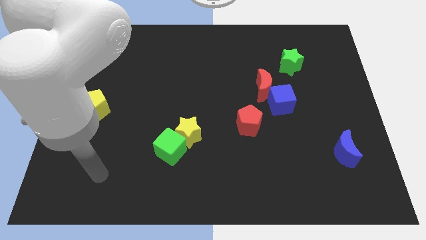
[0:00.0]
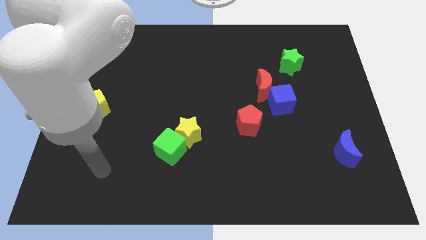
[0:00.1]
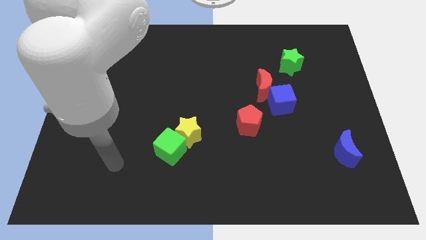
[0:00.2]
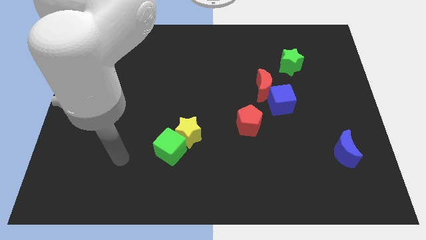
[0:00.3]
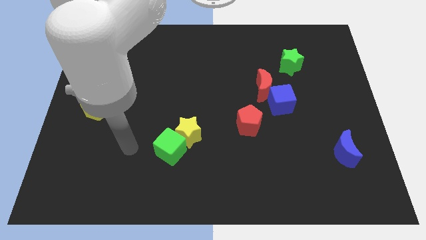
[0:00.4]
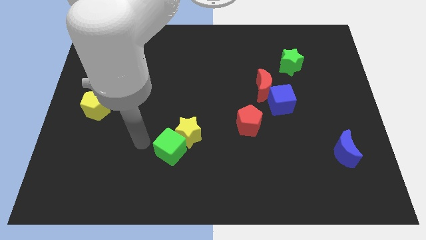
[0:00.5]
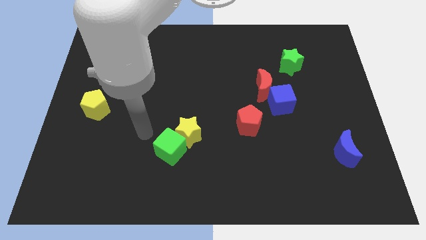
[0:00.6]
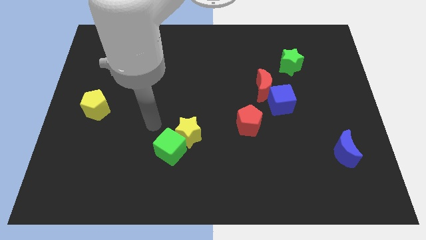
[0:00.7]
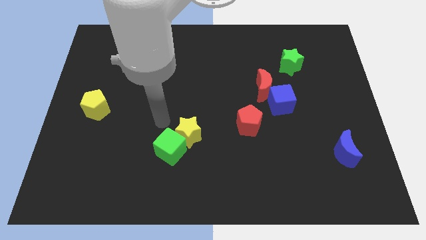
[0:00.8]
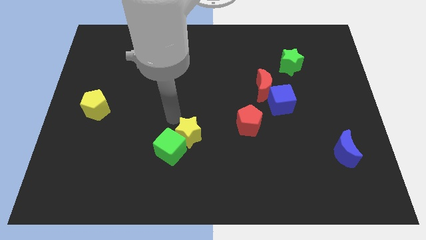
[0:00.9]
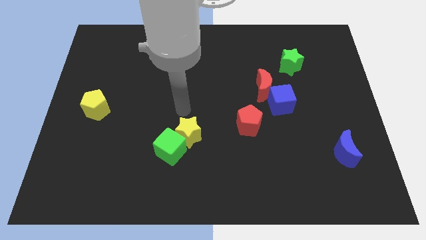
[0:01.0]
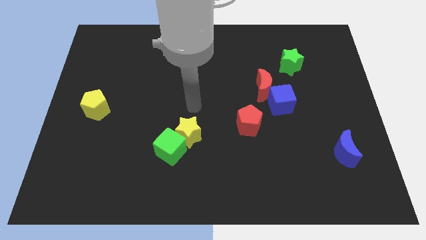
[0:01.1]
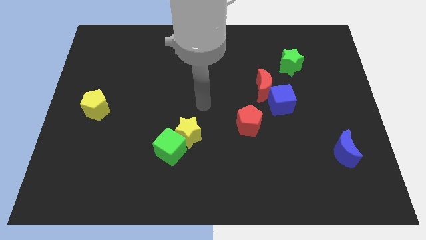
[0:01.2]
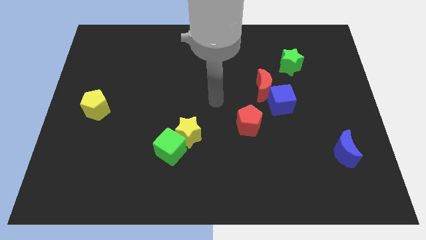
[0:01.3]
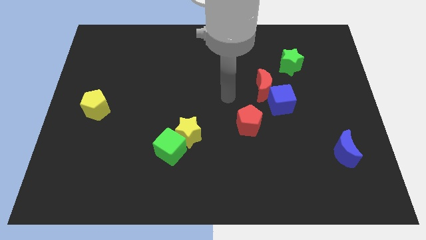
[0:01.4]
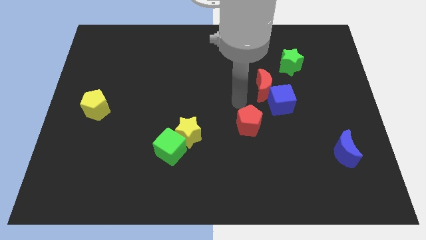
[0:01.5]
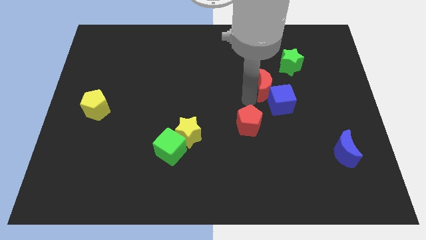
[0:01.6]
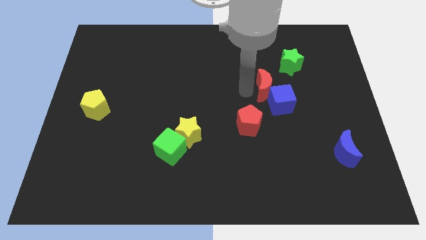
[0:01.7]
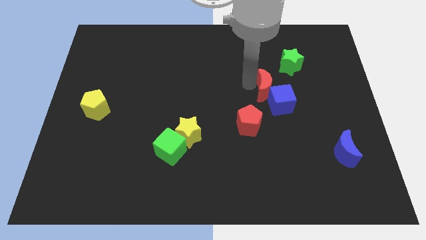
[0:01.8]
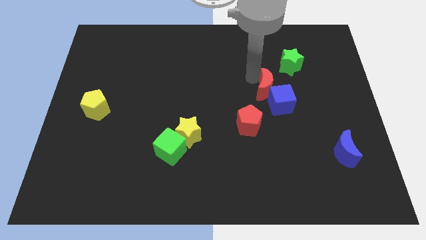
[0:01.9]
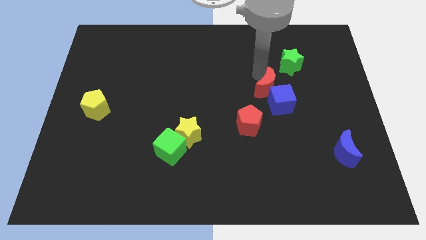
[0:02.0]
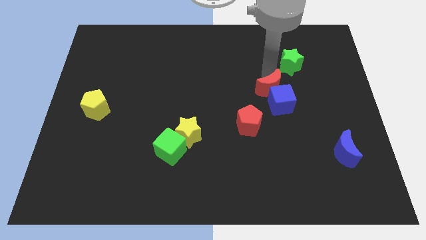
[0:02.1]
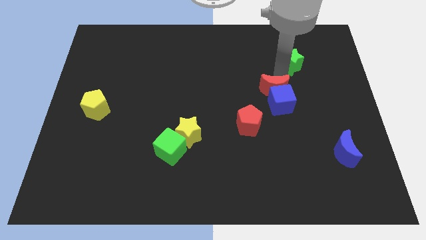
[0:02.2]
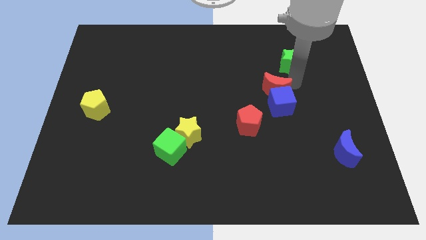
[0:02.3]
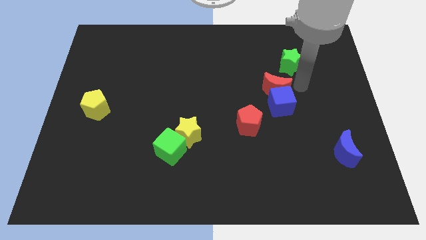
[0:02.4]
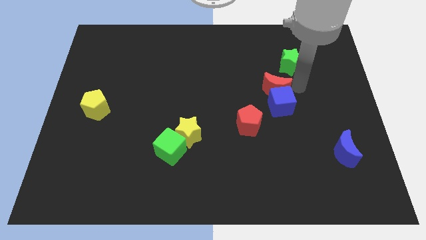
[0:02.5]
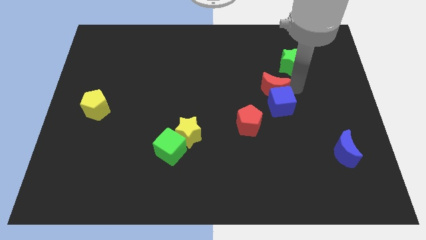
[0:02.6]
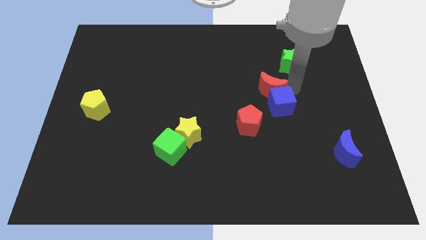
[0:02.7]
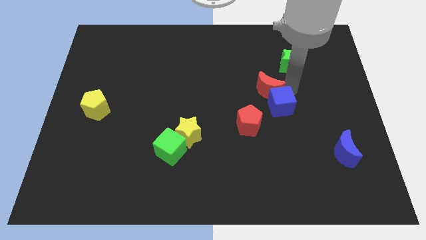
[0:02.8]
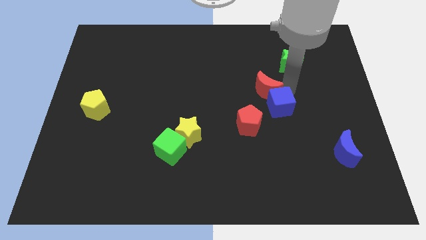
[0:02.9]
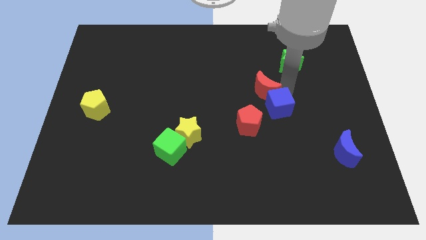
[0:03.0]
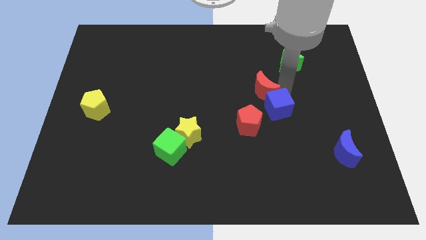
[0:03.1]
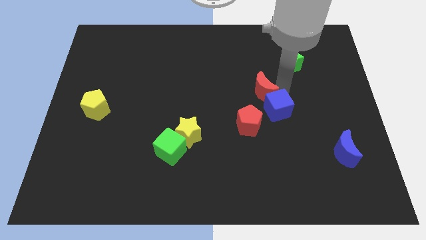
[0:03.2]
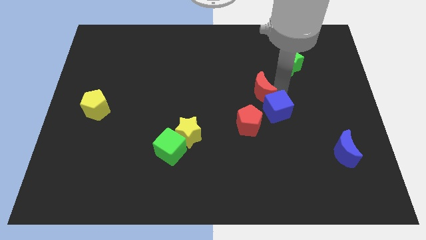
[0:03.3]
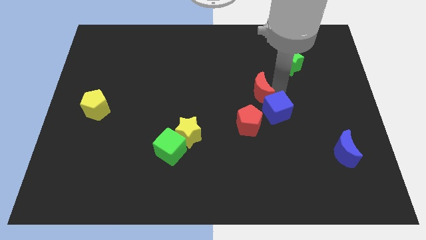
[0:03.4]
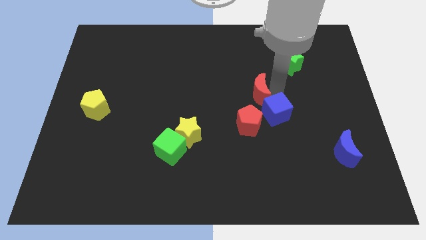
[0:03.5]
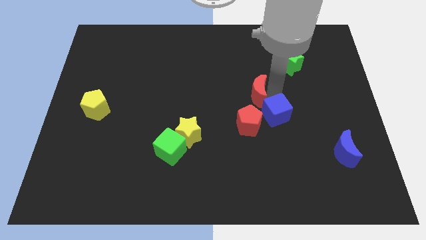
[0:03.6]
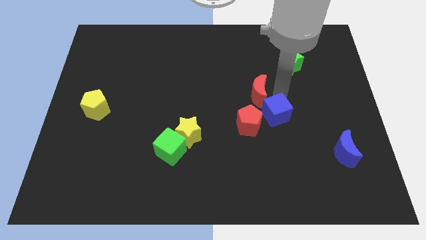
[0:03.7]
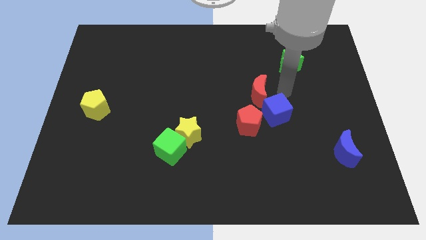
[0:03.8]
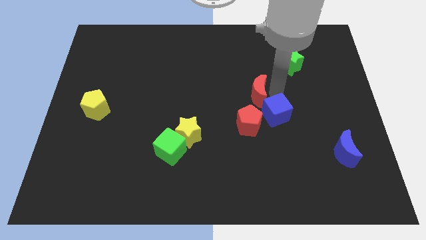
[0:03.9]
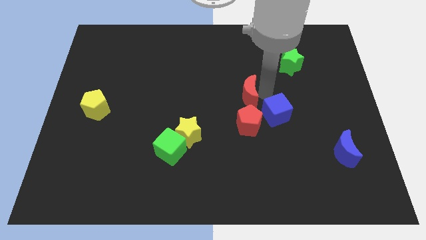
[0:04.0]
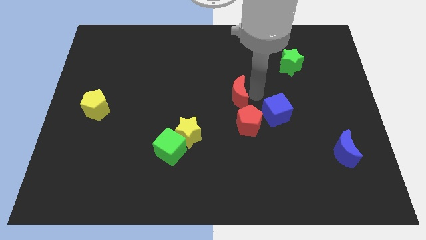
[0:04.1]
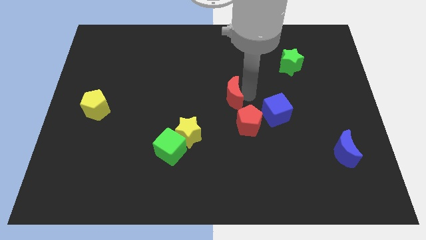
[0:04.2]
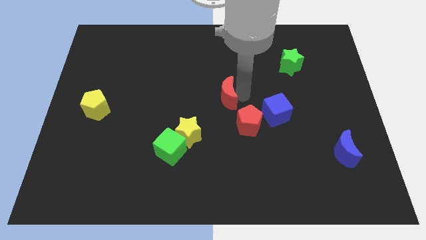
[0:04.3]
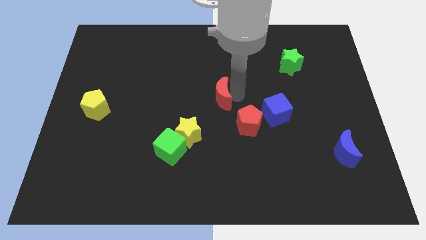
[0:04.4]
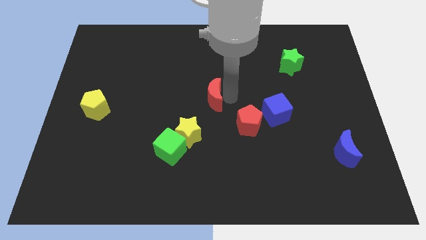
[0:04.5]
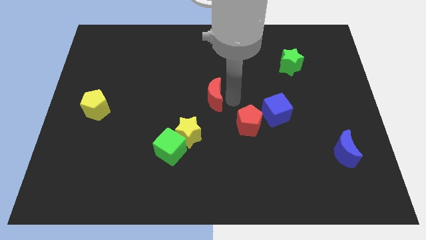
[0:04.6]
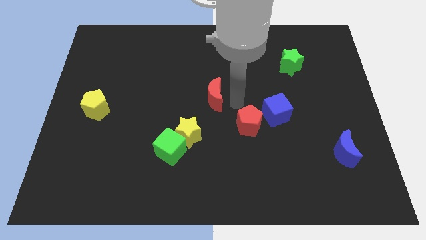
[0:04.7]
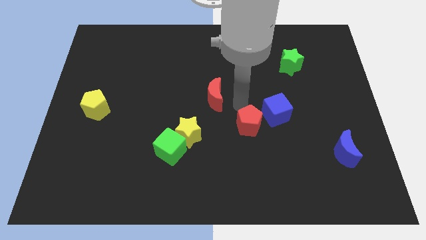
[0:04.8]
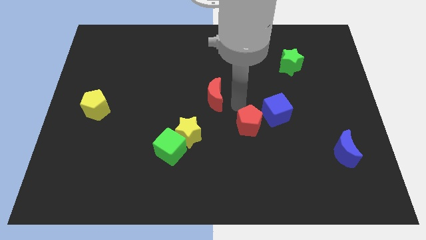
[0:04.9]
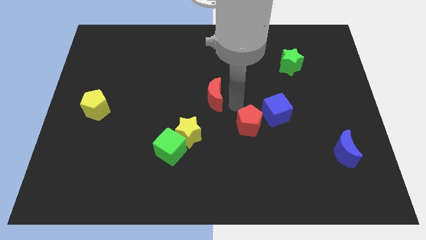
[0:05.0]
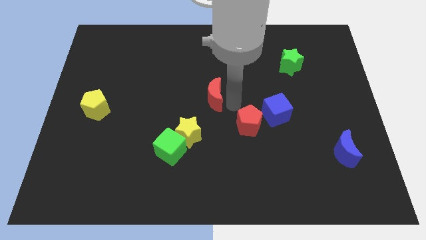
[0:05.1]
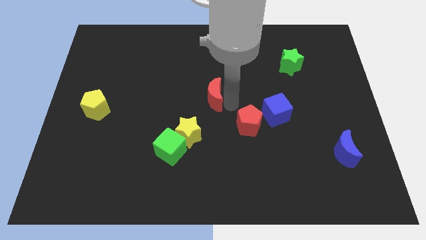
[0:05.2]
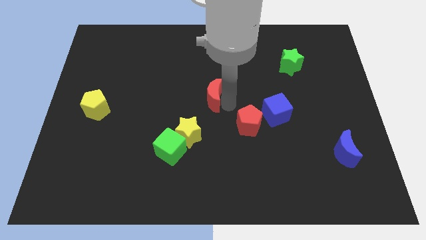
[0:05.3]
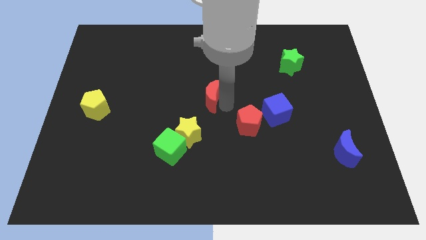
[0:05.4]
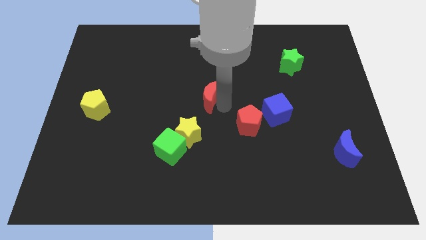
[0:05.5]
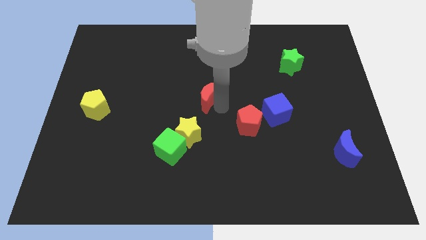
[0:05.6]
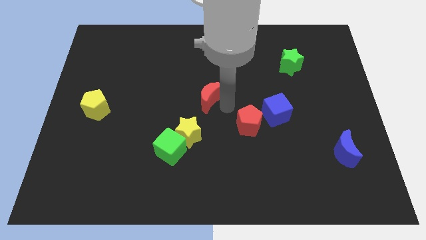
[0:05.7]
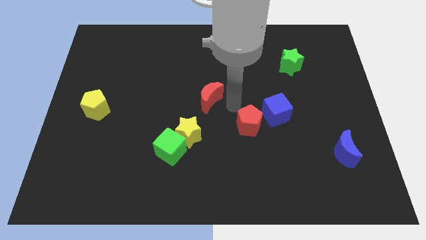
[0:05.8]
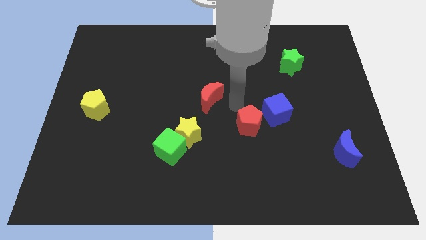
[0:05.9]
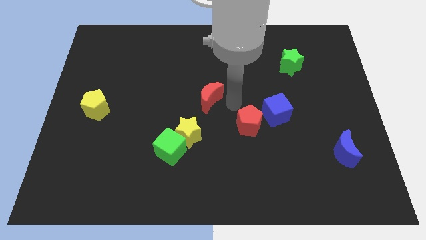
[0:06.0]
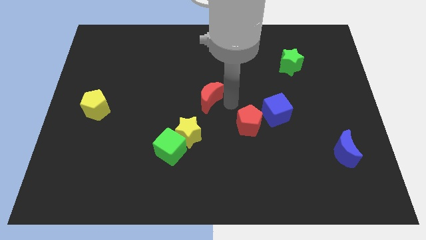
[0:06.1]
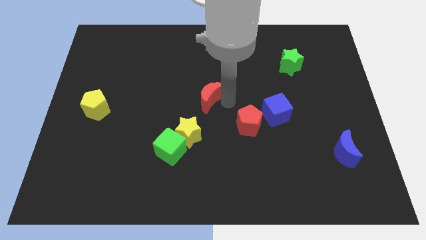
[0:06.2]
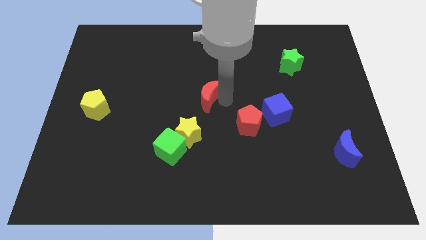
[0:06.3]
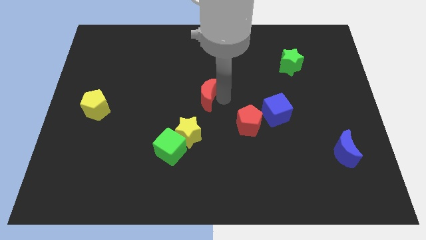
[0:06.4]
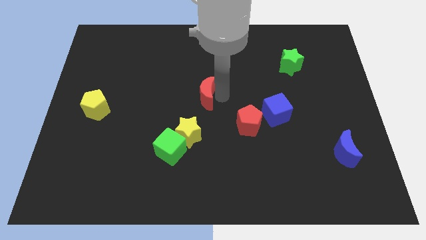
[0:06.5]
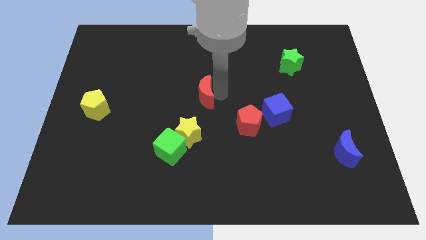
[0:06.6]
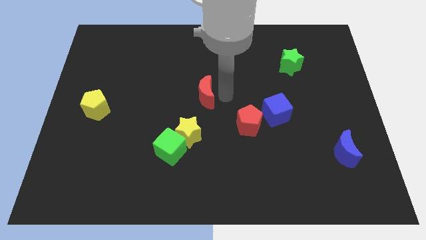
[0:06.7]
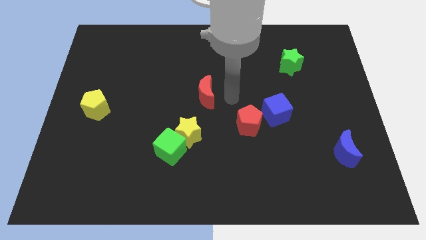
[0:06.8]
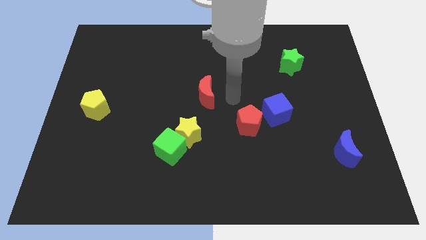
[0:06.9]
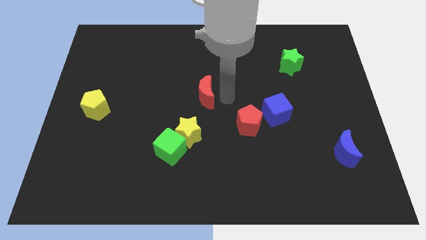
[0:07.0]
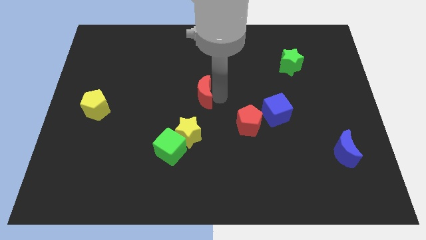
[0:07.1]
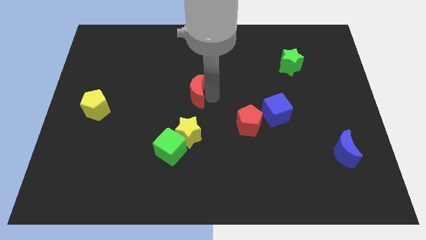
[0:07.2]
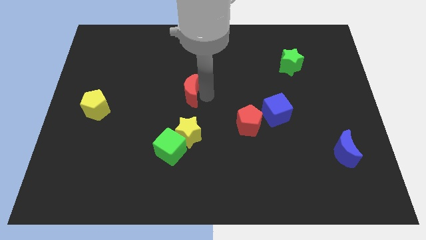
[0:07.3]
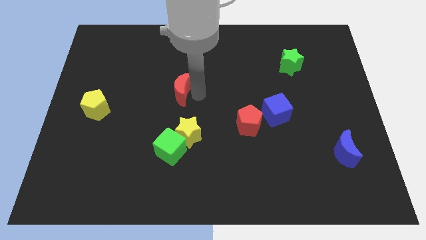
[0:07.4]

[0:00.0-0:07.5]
push the red moon to the left

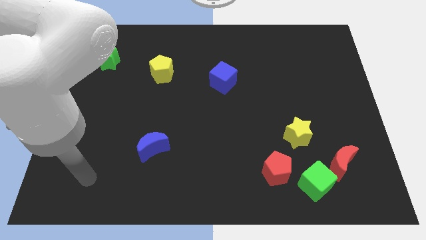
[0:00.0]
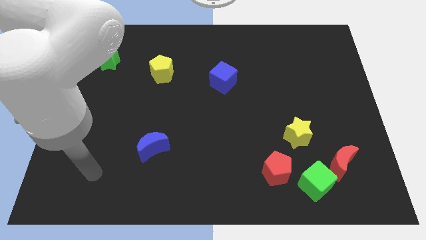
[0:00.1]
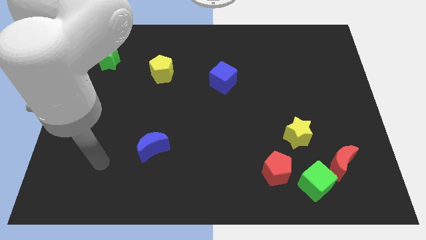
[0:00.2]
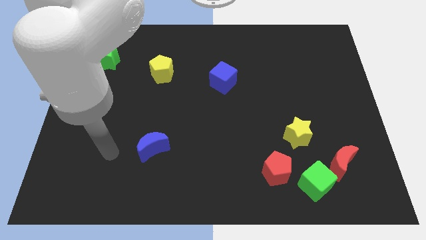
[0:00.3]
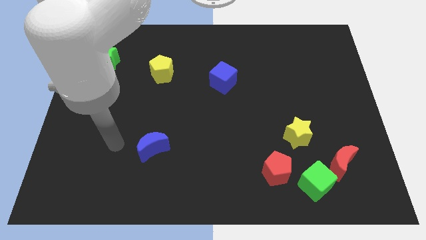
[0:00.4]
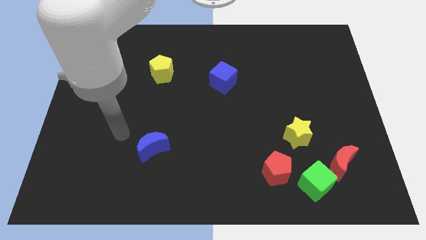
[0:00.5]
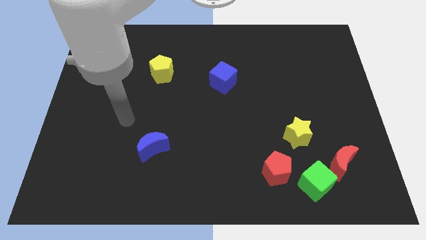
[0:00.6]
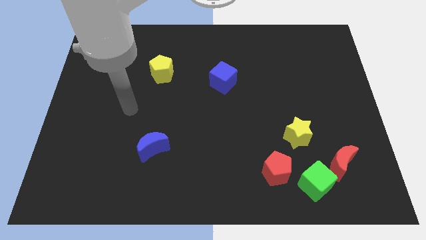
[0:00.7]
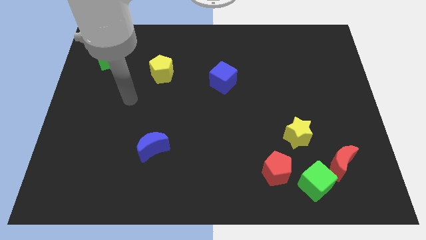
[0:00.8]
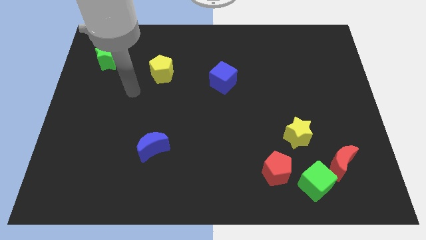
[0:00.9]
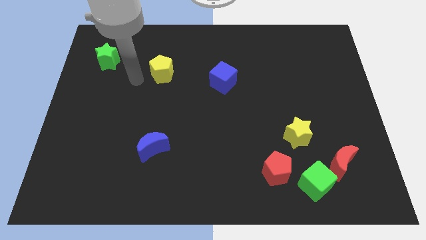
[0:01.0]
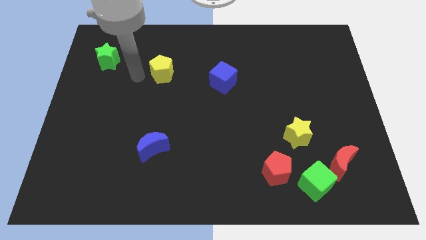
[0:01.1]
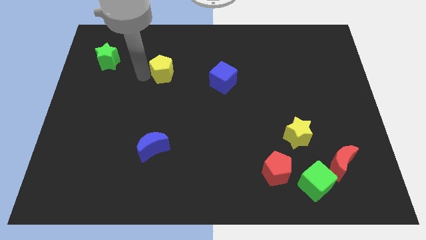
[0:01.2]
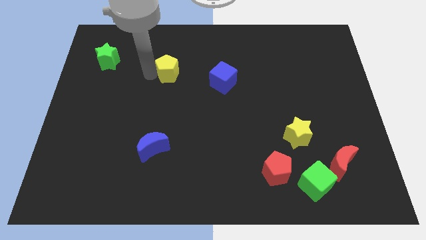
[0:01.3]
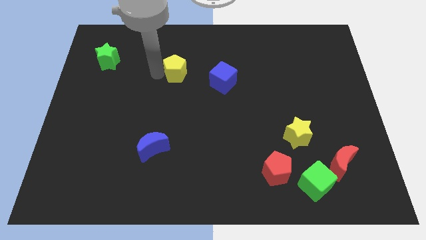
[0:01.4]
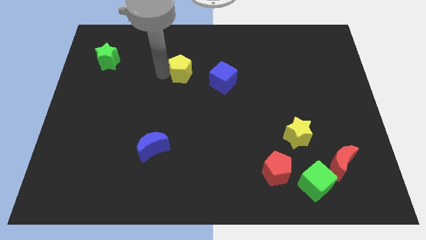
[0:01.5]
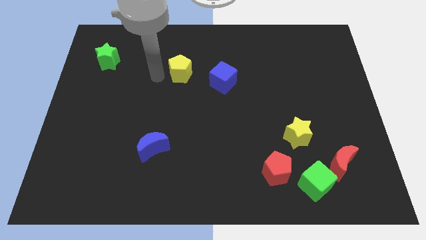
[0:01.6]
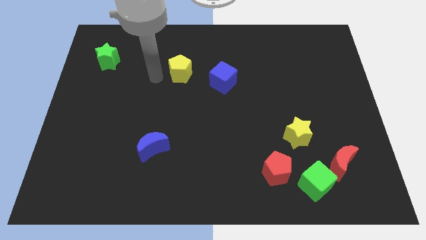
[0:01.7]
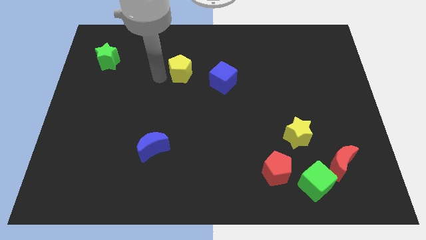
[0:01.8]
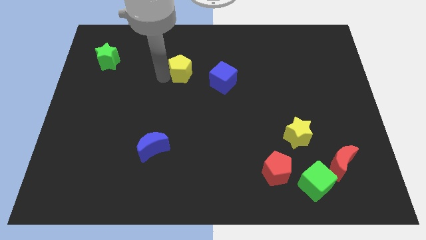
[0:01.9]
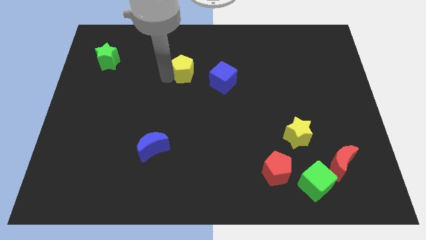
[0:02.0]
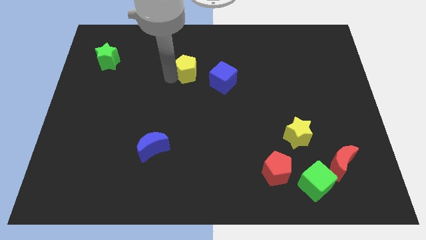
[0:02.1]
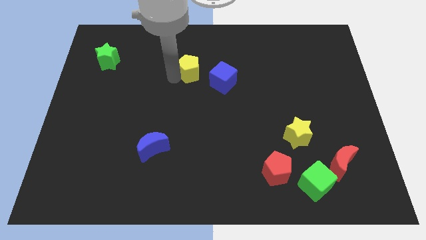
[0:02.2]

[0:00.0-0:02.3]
slightly move the yellow pentagon right
